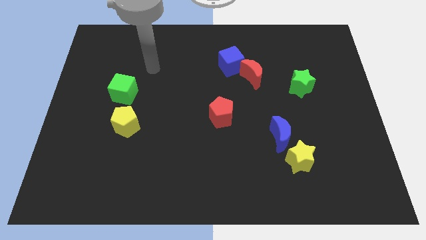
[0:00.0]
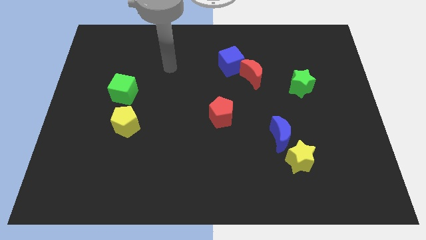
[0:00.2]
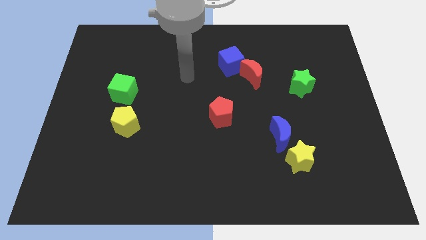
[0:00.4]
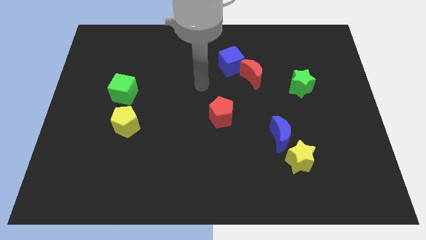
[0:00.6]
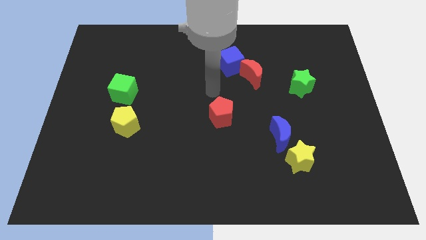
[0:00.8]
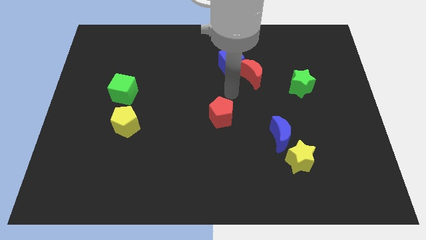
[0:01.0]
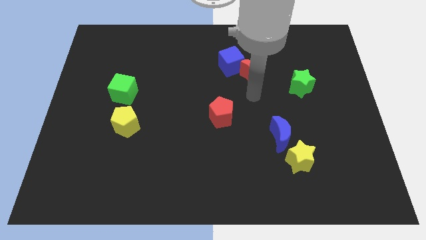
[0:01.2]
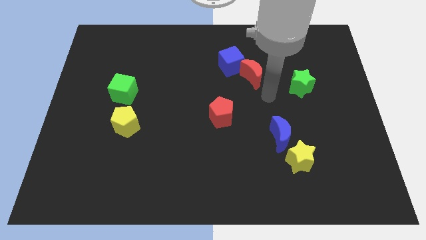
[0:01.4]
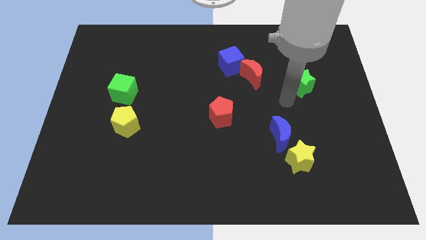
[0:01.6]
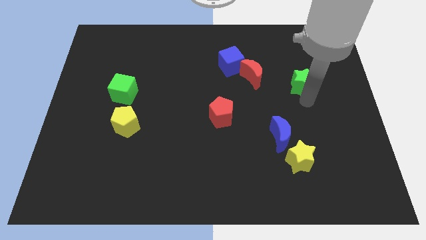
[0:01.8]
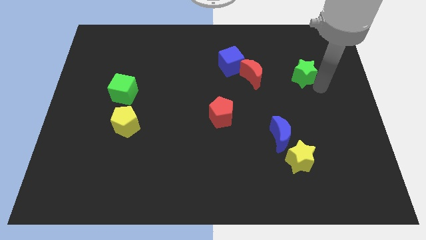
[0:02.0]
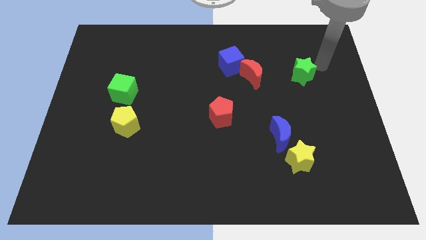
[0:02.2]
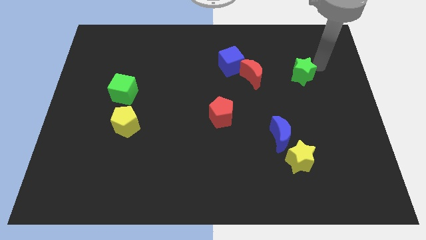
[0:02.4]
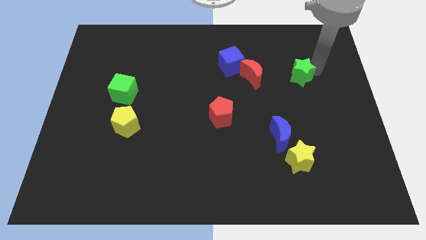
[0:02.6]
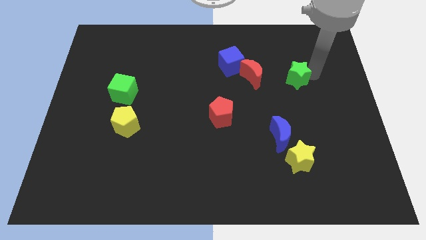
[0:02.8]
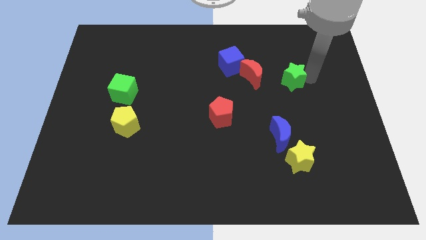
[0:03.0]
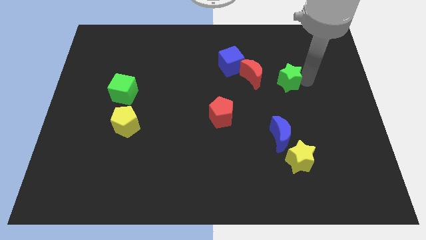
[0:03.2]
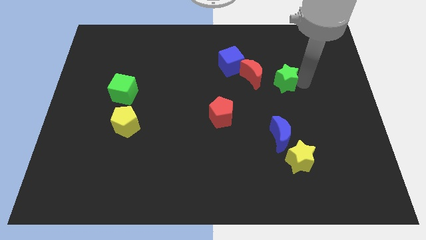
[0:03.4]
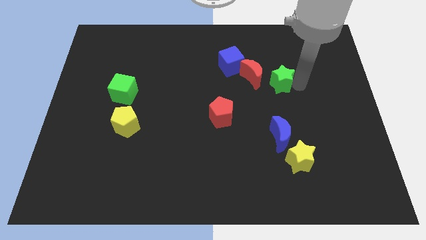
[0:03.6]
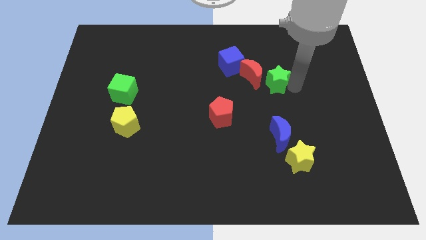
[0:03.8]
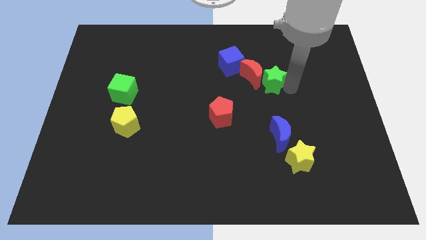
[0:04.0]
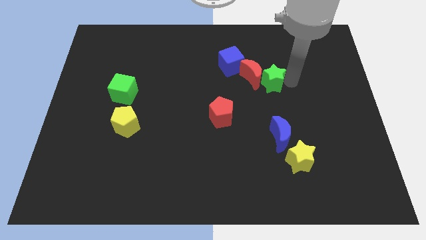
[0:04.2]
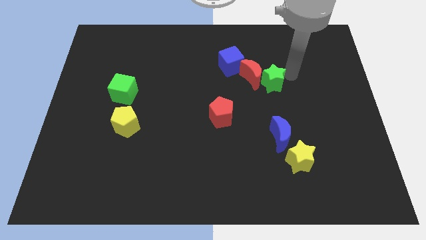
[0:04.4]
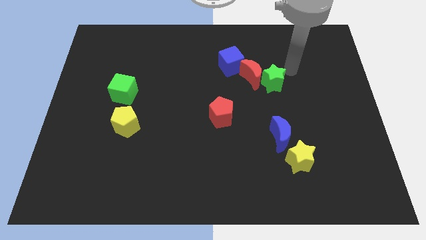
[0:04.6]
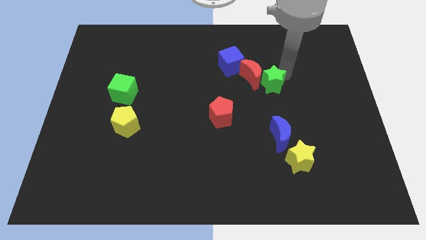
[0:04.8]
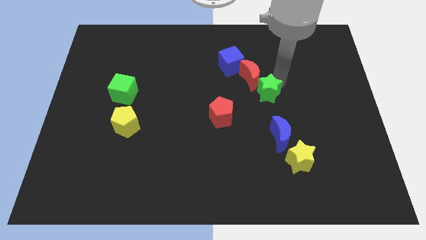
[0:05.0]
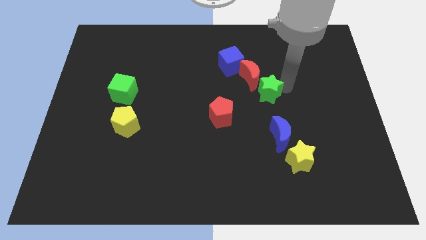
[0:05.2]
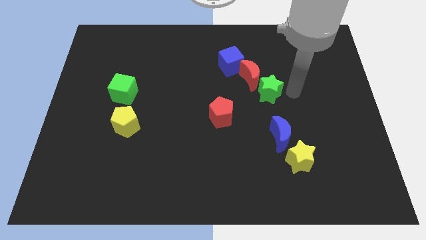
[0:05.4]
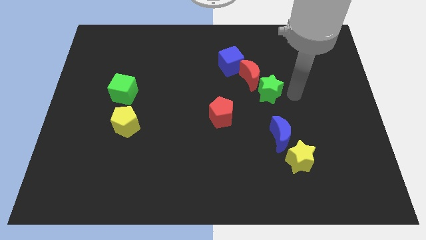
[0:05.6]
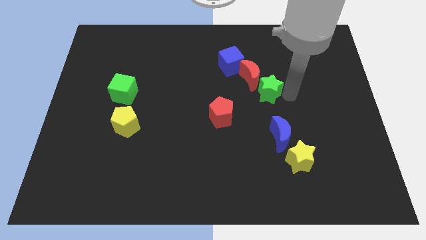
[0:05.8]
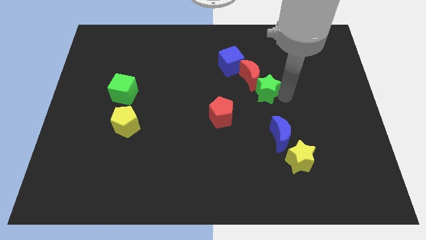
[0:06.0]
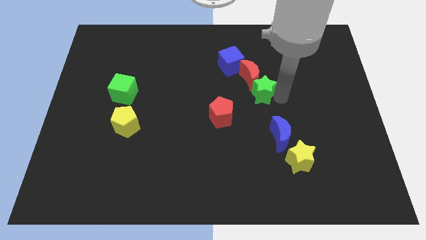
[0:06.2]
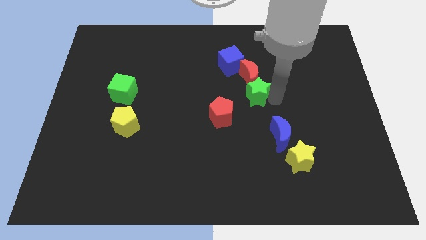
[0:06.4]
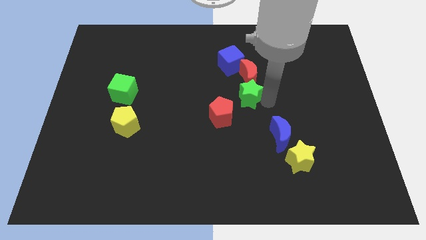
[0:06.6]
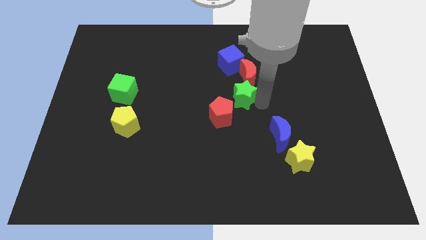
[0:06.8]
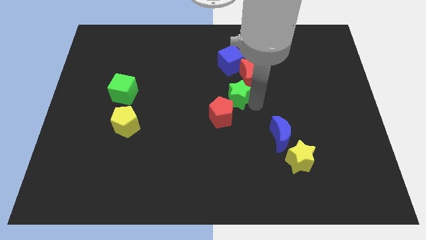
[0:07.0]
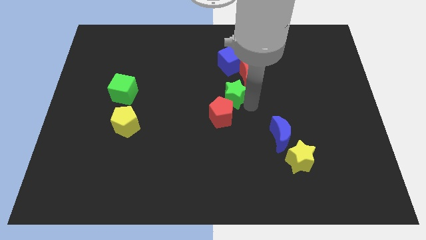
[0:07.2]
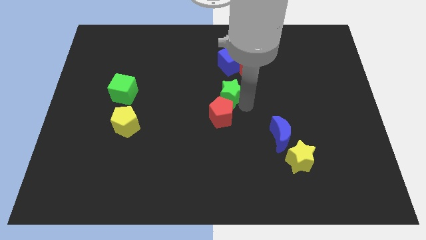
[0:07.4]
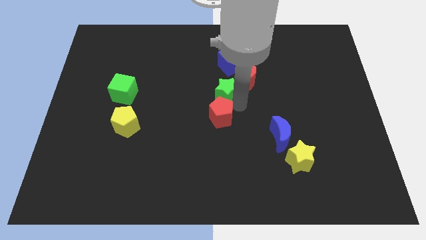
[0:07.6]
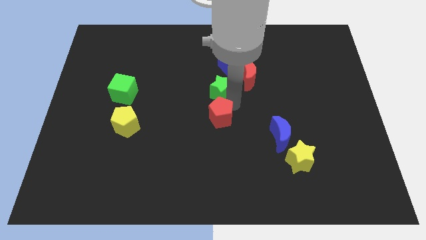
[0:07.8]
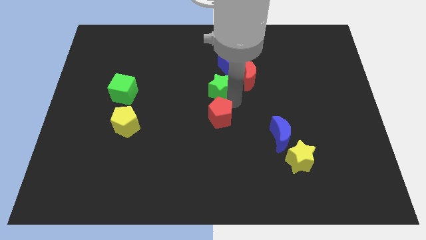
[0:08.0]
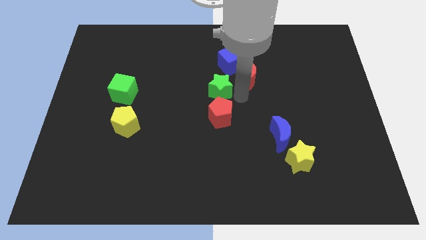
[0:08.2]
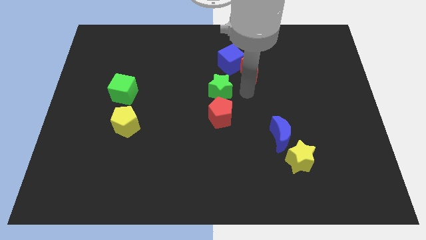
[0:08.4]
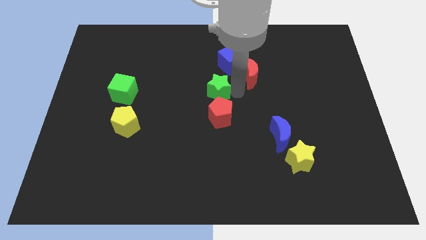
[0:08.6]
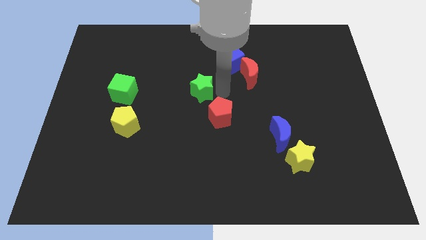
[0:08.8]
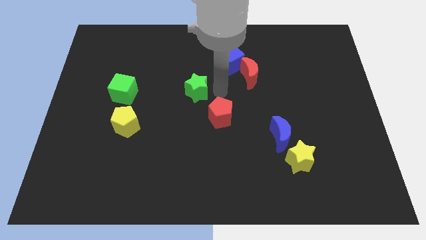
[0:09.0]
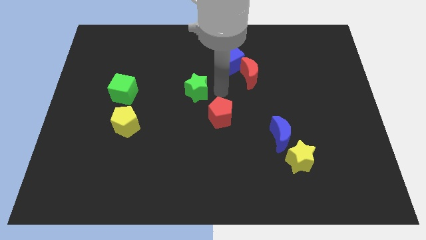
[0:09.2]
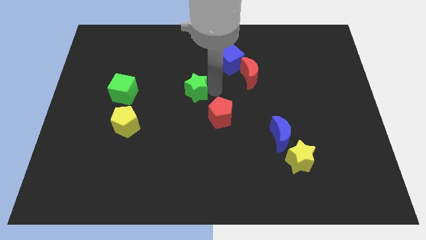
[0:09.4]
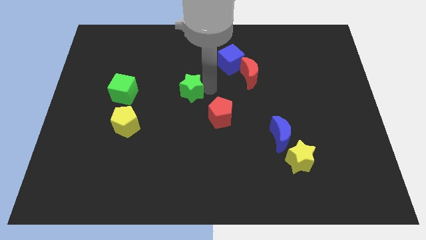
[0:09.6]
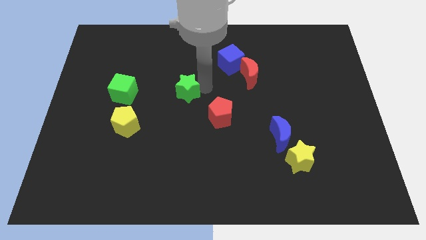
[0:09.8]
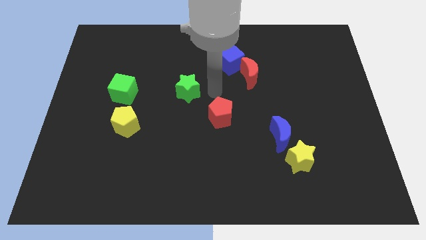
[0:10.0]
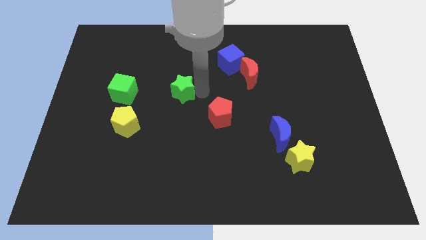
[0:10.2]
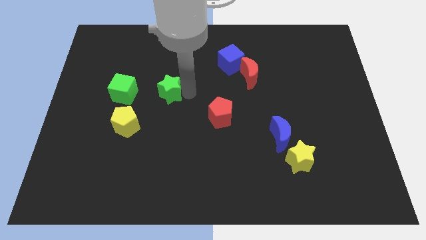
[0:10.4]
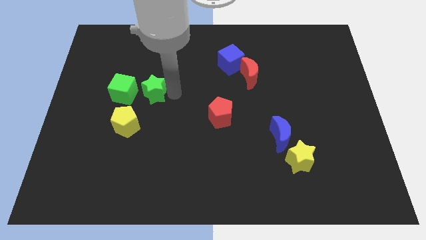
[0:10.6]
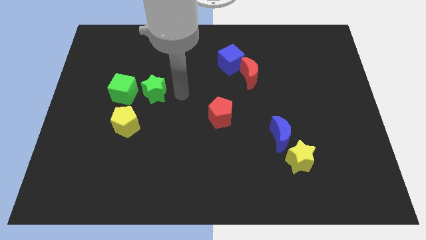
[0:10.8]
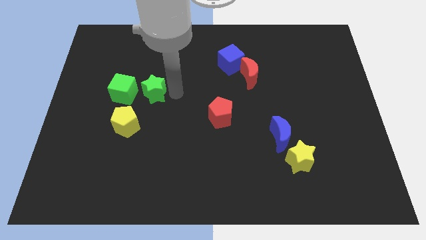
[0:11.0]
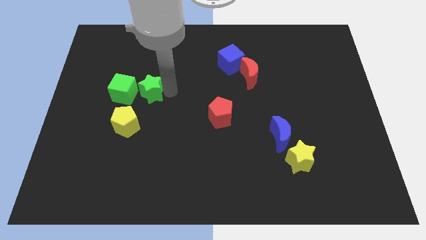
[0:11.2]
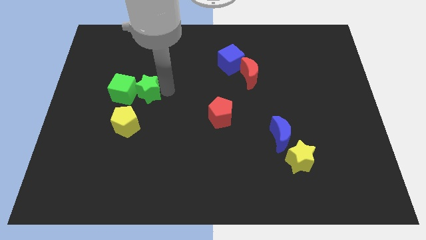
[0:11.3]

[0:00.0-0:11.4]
put the green star close to the green cube

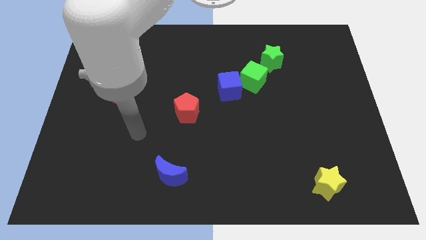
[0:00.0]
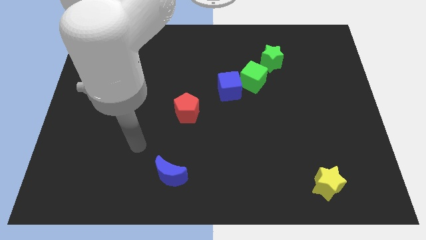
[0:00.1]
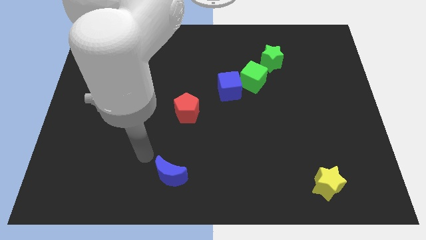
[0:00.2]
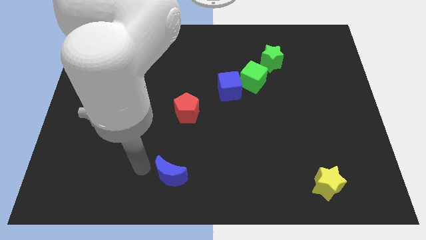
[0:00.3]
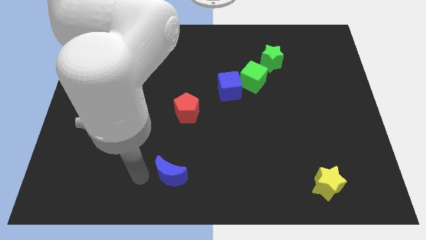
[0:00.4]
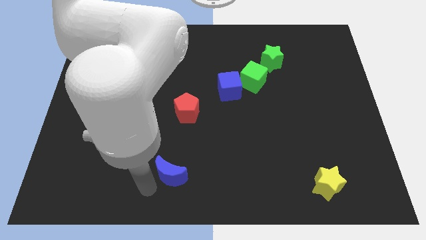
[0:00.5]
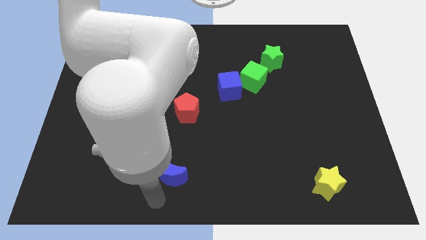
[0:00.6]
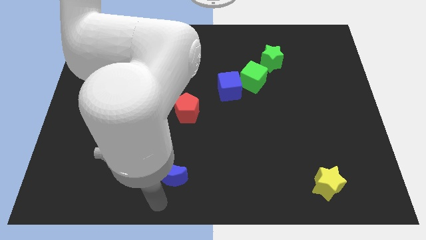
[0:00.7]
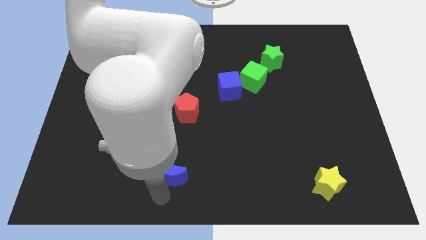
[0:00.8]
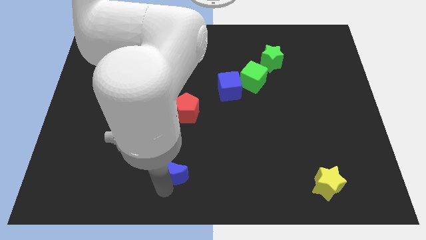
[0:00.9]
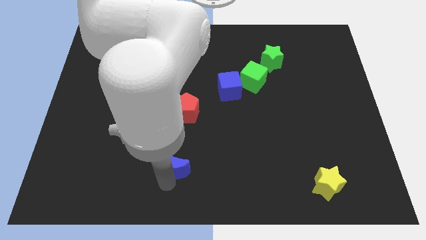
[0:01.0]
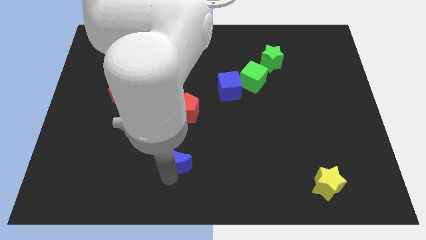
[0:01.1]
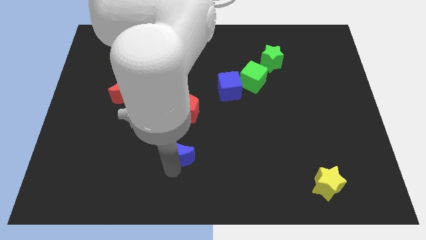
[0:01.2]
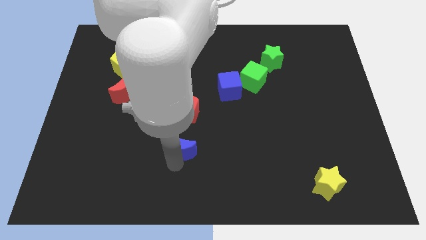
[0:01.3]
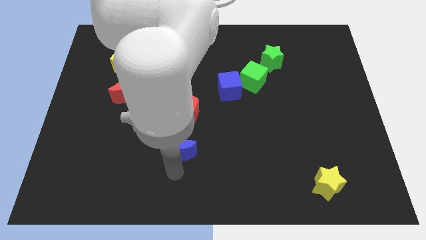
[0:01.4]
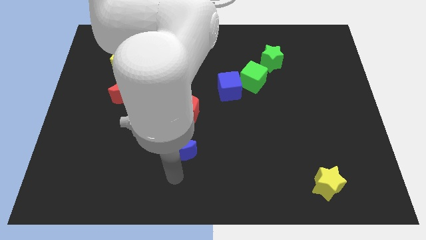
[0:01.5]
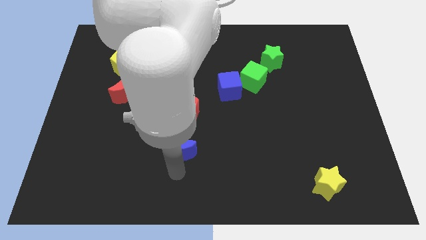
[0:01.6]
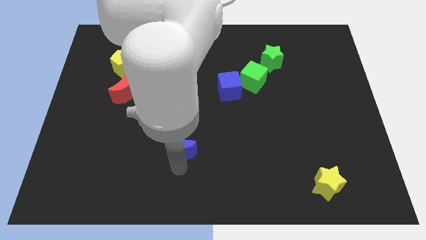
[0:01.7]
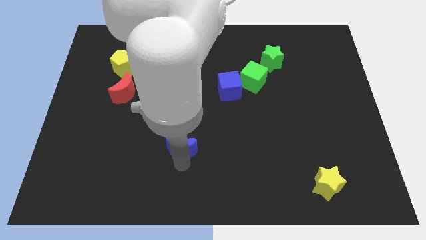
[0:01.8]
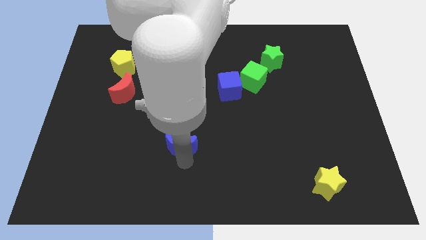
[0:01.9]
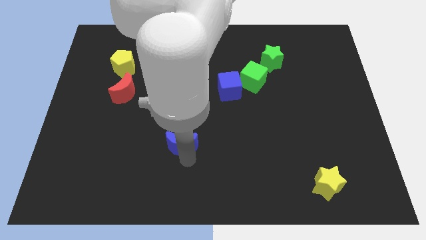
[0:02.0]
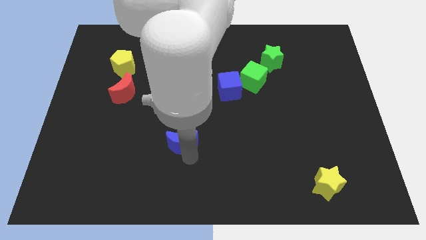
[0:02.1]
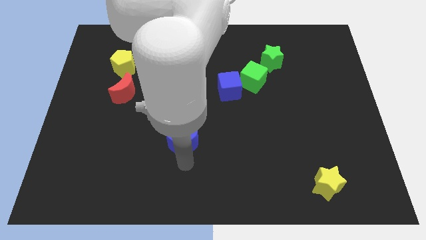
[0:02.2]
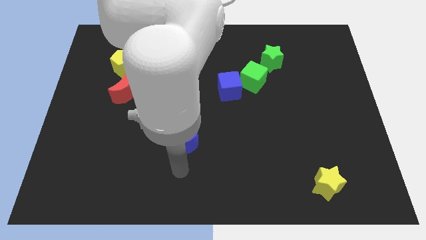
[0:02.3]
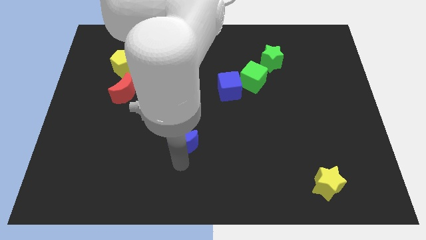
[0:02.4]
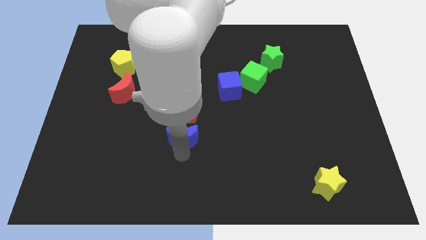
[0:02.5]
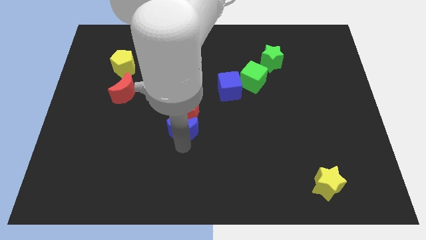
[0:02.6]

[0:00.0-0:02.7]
move the blue moon next to the red pentagon
